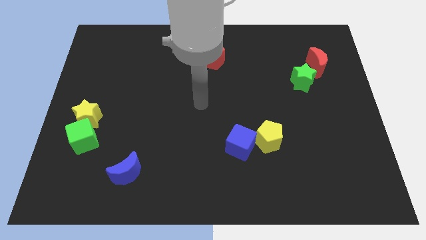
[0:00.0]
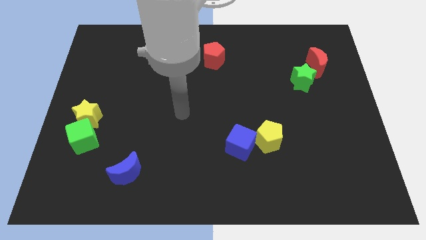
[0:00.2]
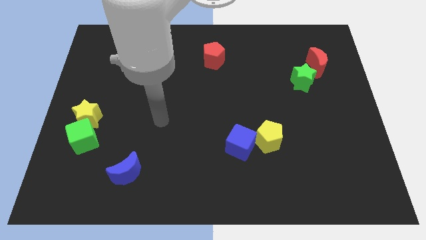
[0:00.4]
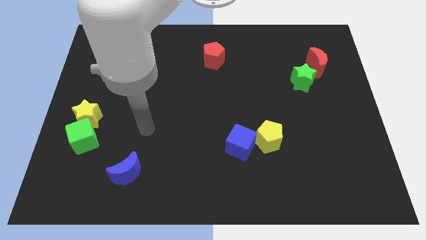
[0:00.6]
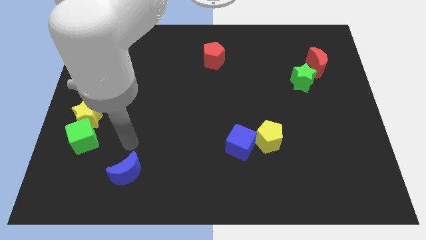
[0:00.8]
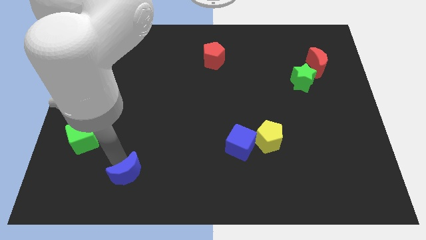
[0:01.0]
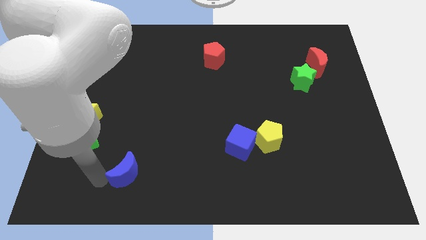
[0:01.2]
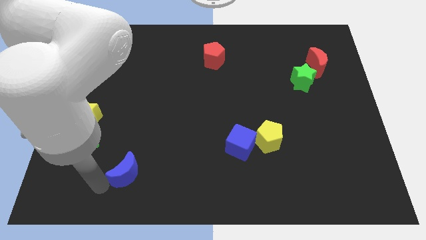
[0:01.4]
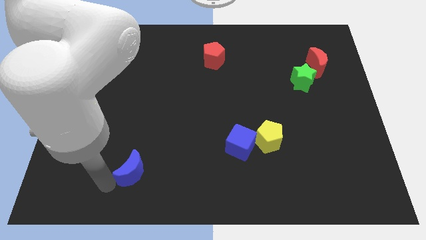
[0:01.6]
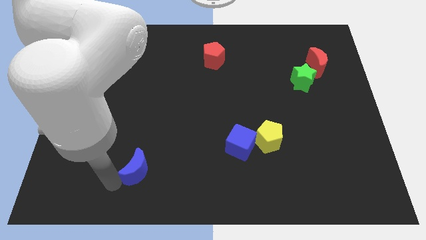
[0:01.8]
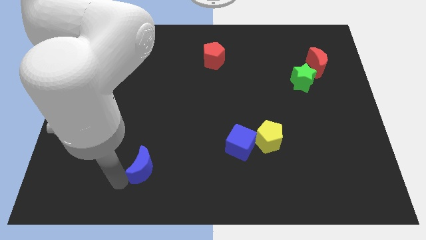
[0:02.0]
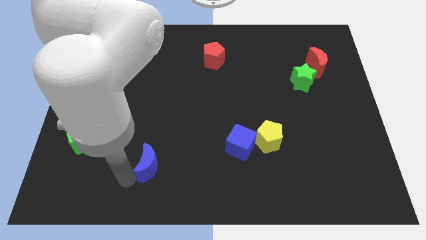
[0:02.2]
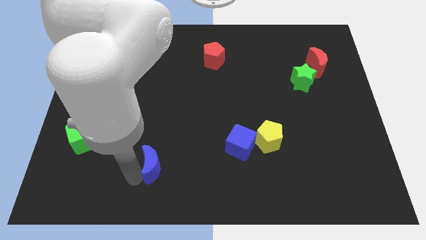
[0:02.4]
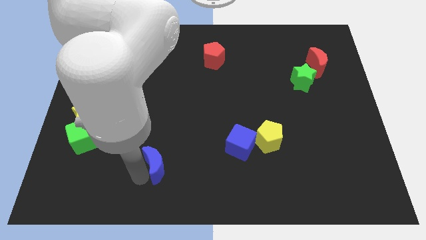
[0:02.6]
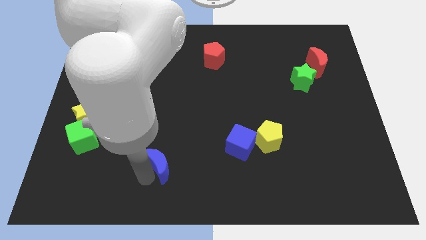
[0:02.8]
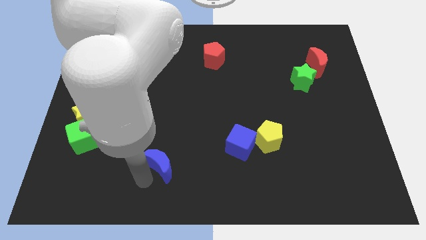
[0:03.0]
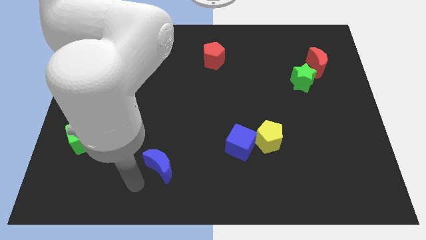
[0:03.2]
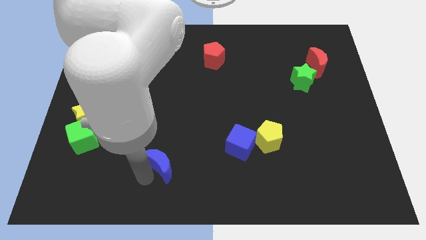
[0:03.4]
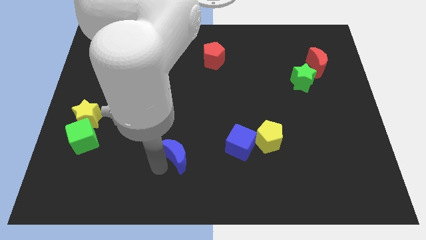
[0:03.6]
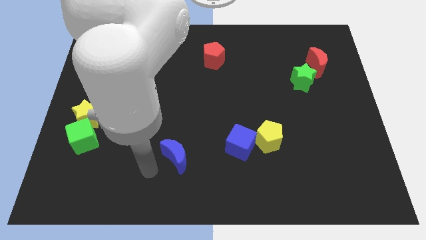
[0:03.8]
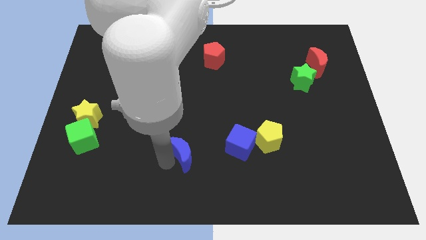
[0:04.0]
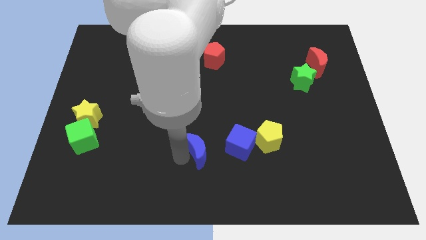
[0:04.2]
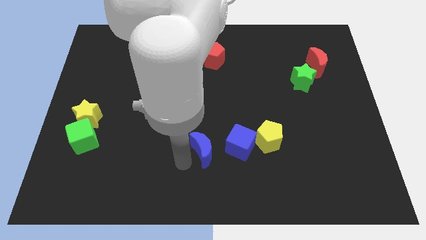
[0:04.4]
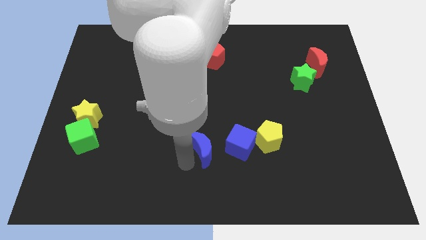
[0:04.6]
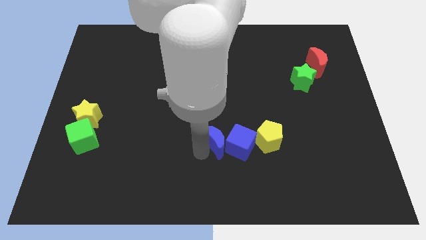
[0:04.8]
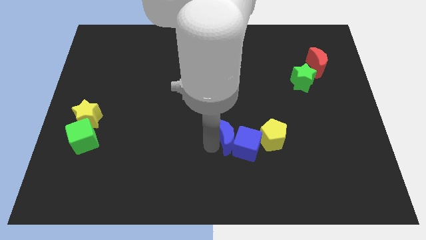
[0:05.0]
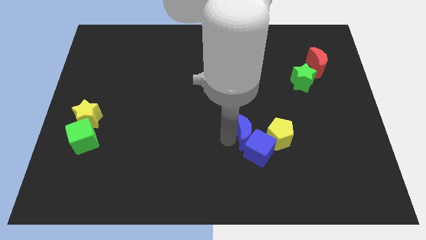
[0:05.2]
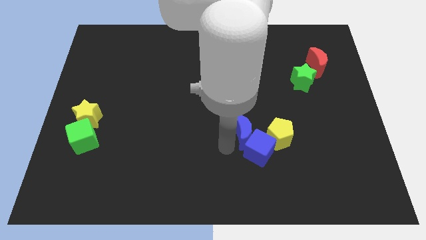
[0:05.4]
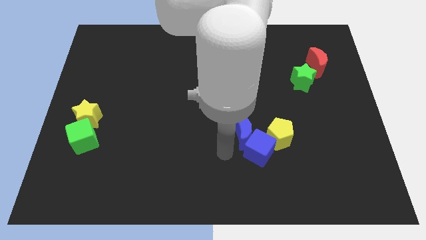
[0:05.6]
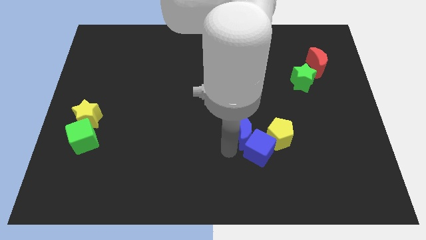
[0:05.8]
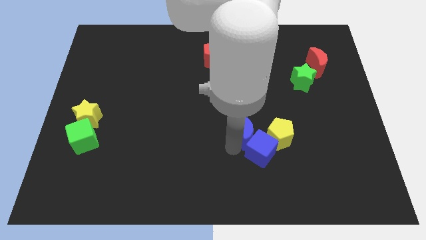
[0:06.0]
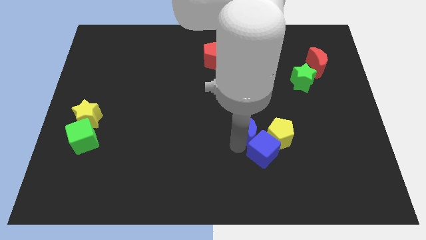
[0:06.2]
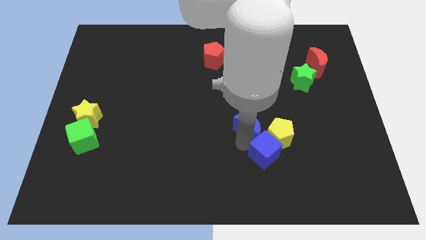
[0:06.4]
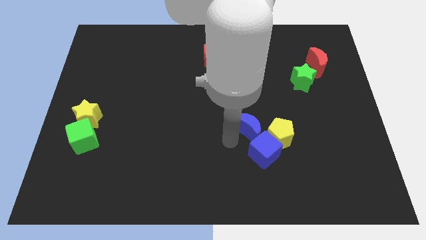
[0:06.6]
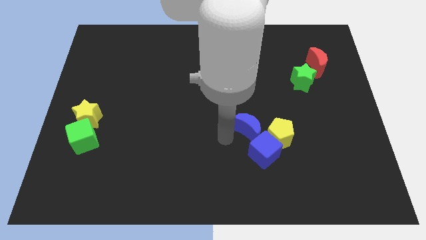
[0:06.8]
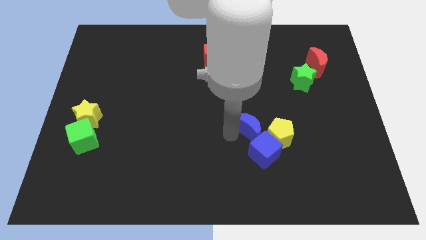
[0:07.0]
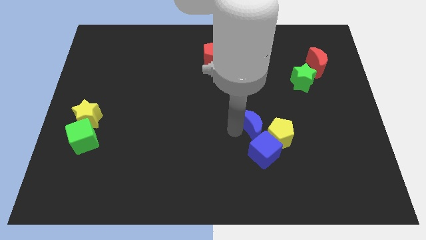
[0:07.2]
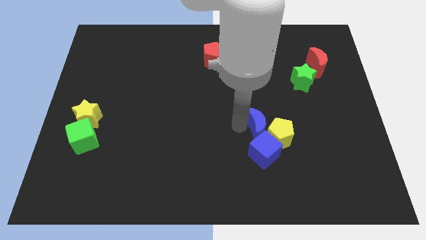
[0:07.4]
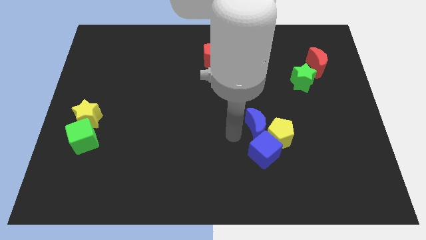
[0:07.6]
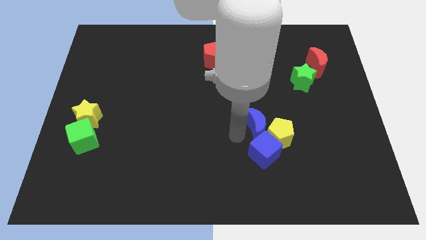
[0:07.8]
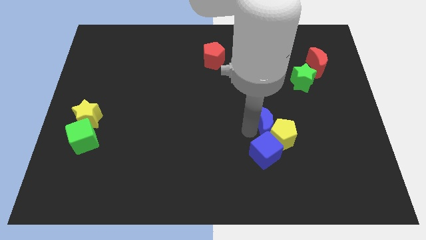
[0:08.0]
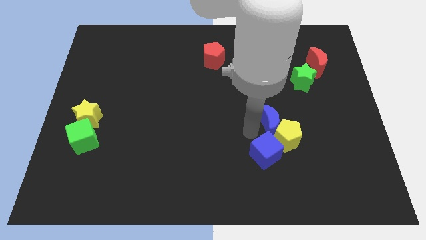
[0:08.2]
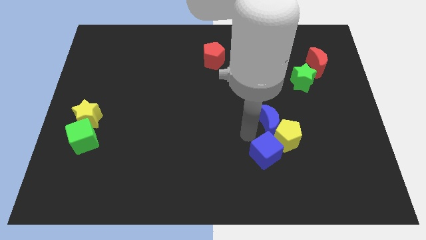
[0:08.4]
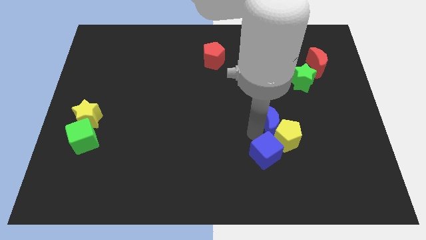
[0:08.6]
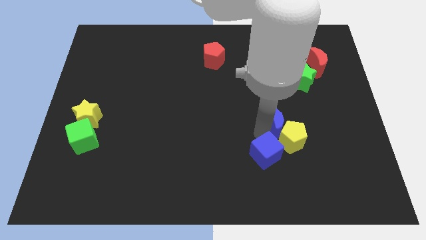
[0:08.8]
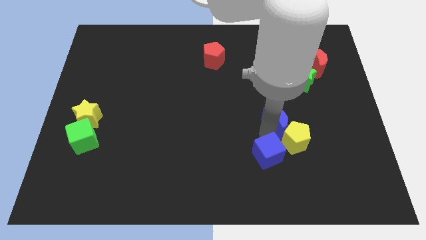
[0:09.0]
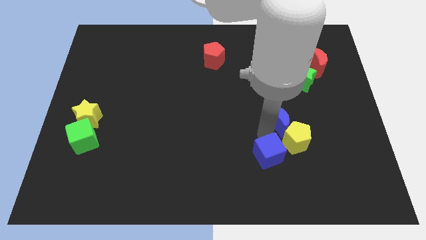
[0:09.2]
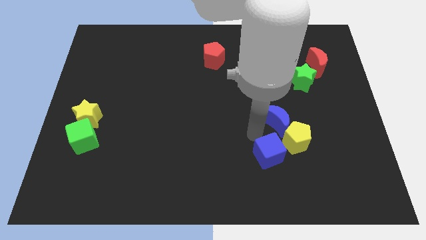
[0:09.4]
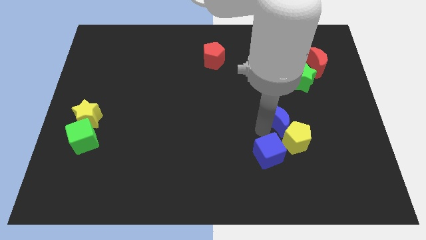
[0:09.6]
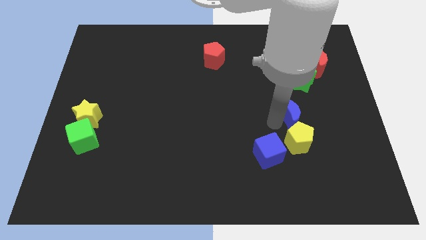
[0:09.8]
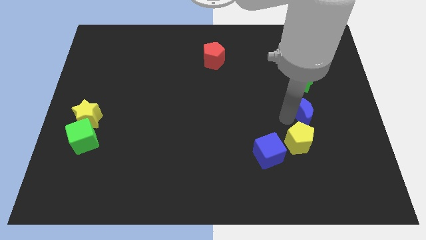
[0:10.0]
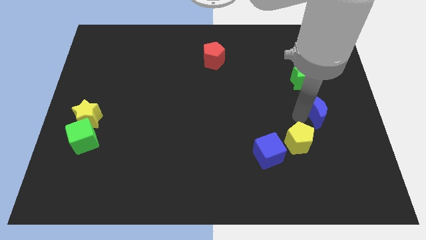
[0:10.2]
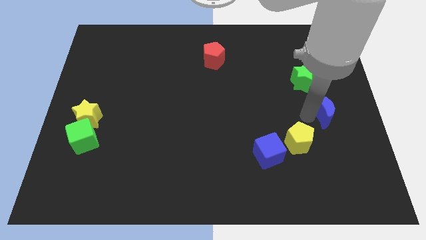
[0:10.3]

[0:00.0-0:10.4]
put the blue moon to the right side of the board

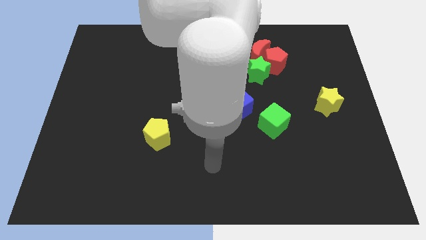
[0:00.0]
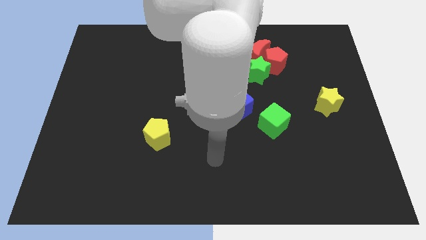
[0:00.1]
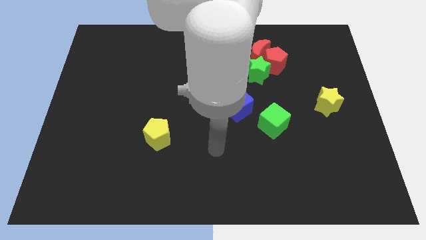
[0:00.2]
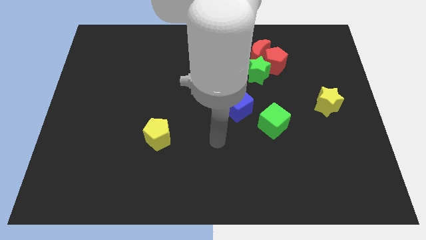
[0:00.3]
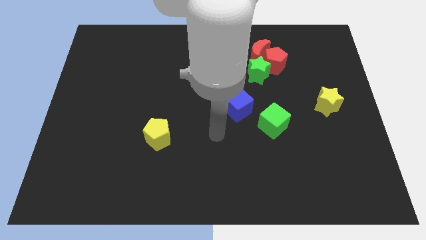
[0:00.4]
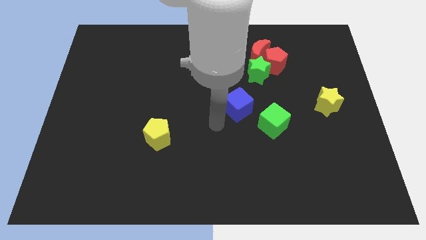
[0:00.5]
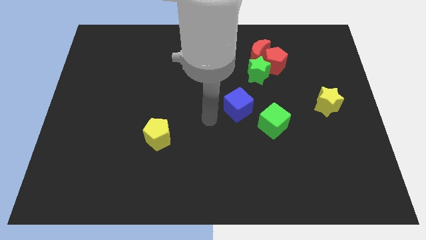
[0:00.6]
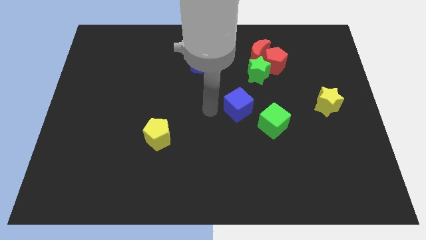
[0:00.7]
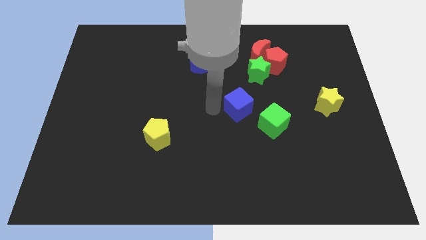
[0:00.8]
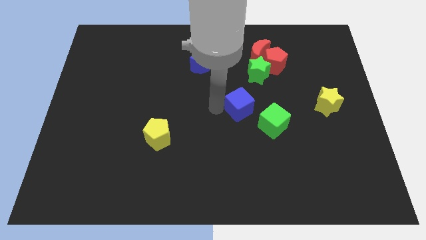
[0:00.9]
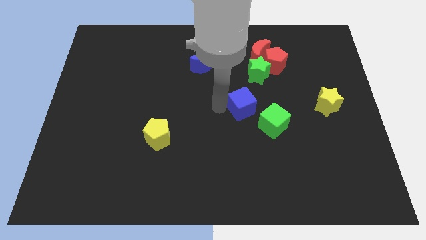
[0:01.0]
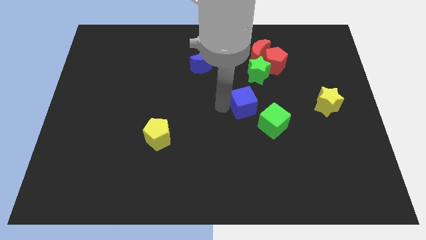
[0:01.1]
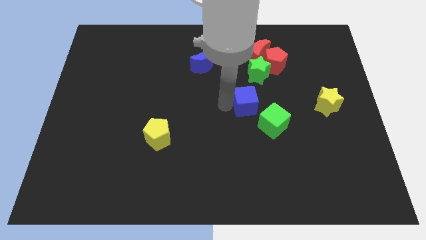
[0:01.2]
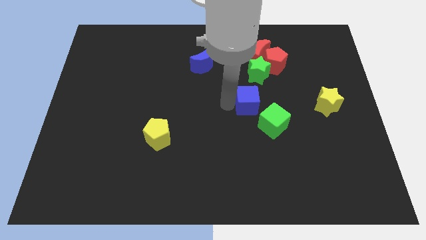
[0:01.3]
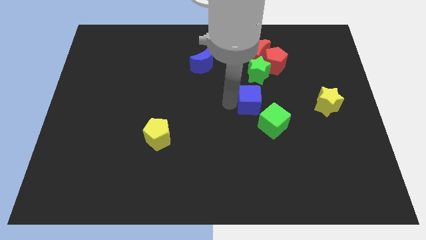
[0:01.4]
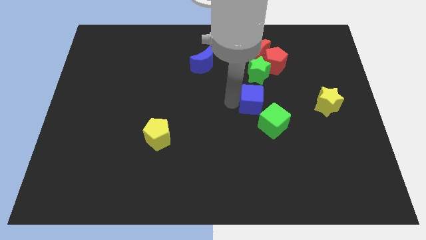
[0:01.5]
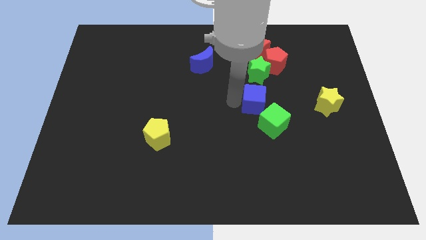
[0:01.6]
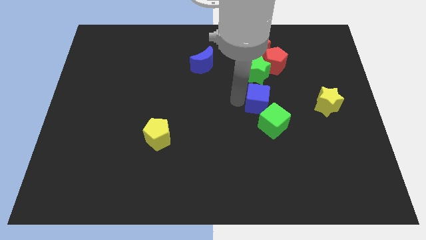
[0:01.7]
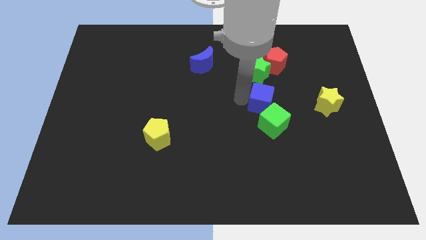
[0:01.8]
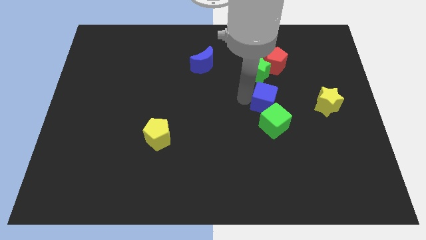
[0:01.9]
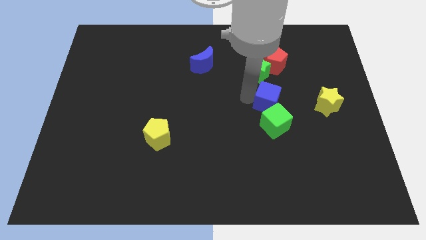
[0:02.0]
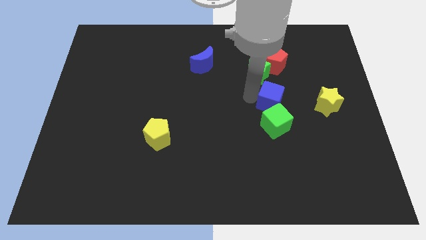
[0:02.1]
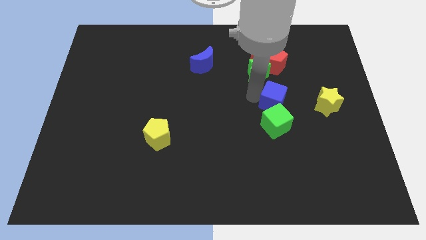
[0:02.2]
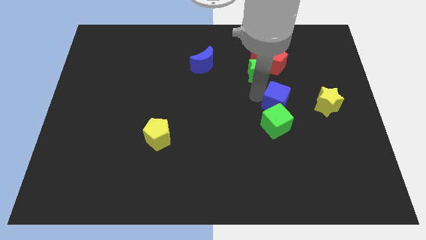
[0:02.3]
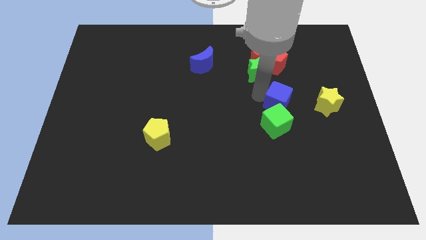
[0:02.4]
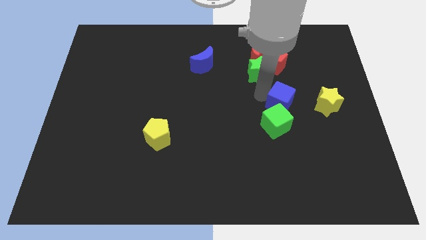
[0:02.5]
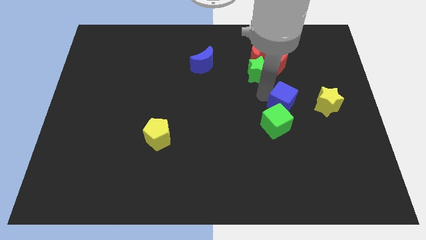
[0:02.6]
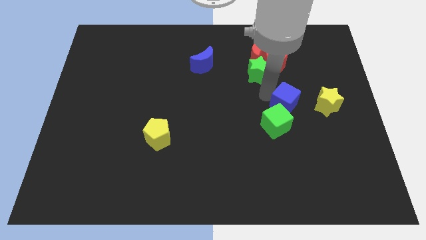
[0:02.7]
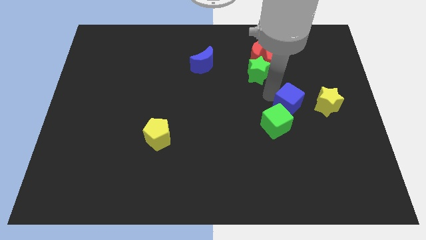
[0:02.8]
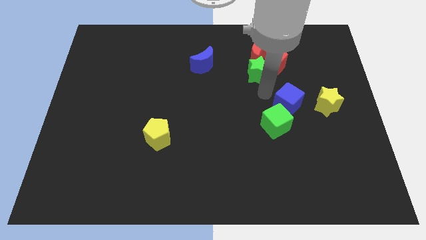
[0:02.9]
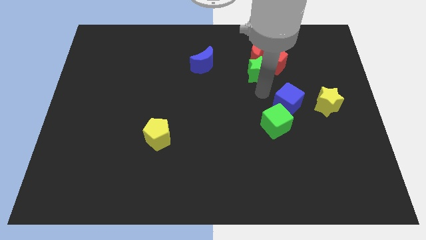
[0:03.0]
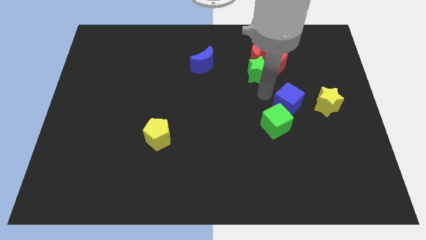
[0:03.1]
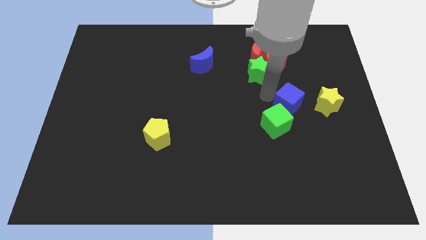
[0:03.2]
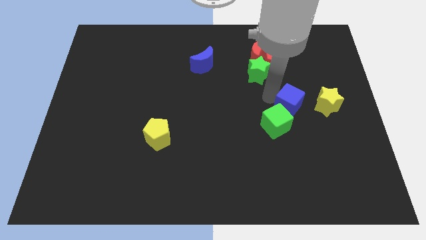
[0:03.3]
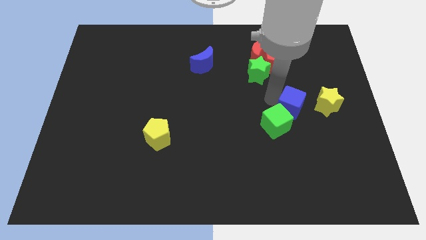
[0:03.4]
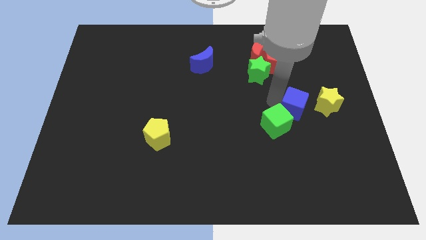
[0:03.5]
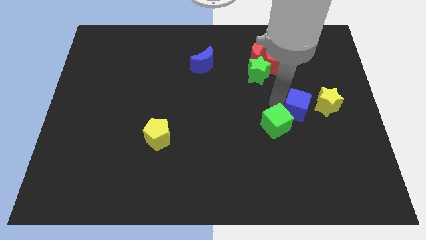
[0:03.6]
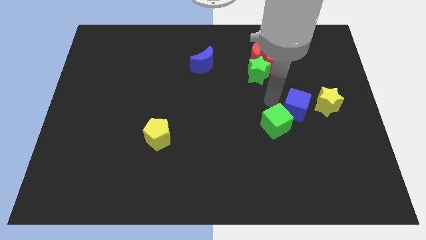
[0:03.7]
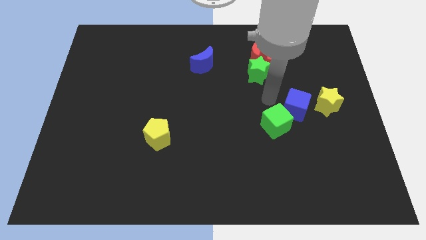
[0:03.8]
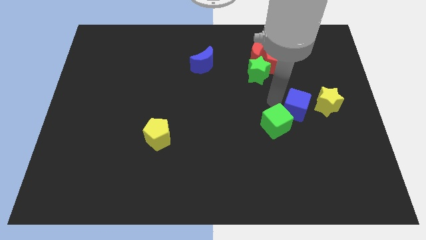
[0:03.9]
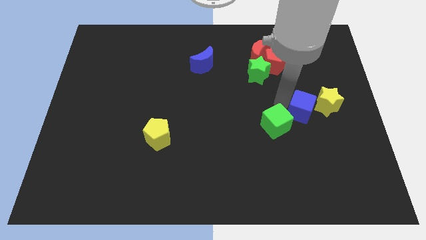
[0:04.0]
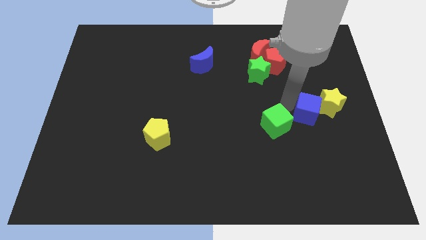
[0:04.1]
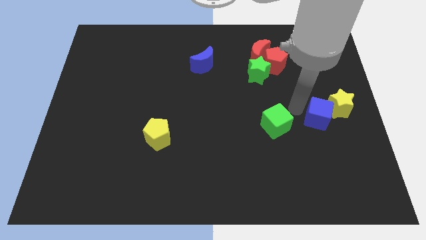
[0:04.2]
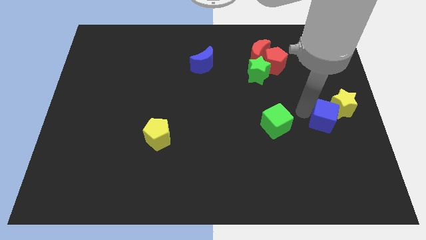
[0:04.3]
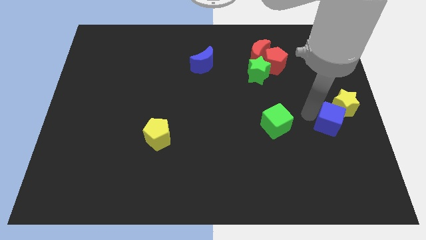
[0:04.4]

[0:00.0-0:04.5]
move the blue cube to the center right
